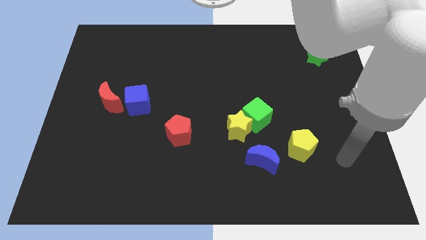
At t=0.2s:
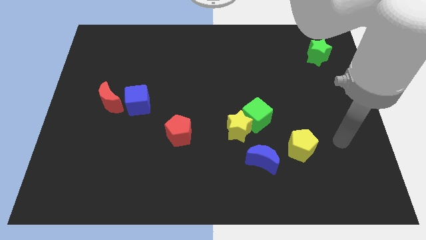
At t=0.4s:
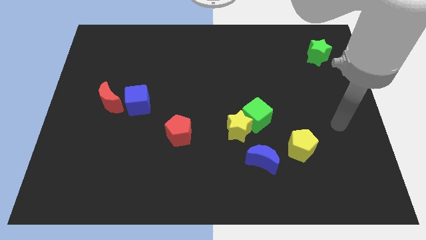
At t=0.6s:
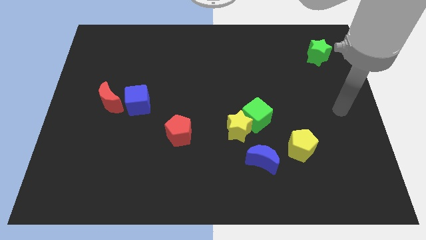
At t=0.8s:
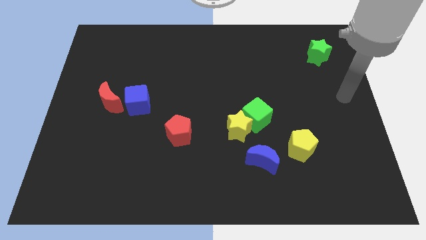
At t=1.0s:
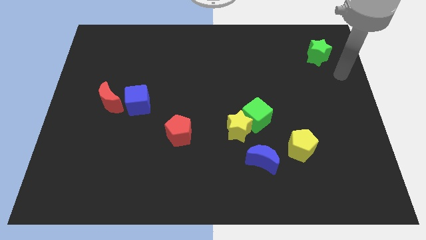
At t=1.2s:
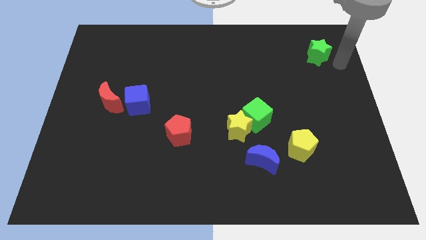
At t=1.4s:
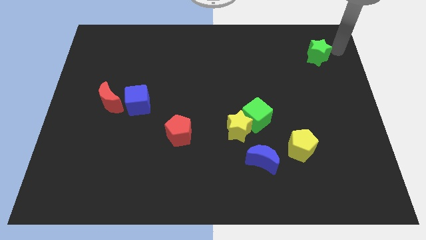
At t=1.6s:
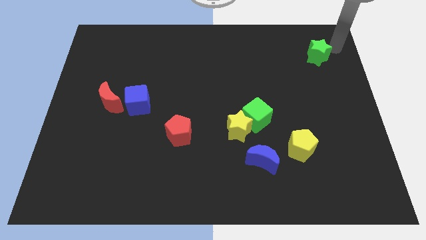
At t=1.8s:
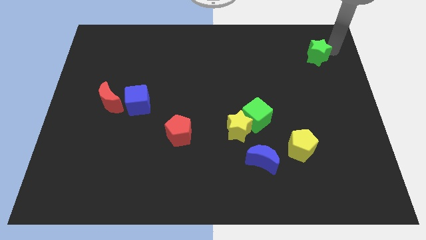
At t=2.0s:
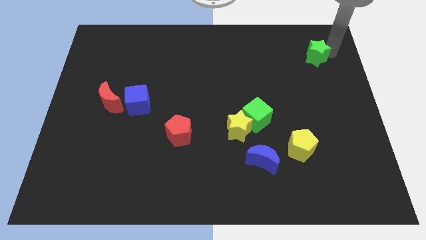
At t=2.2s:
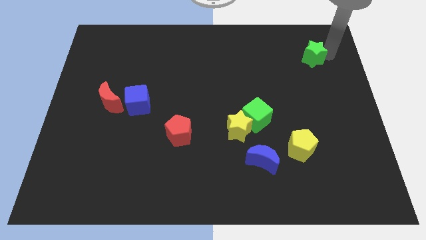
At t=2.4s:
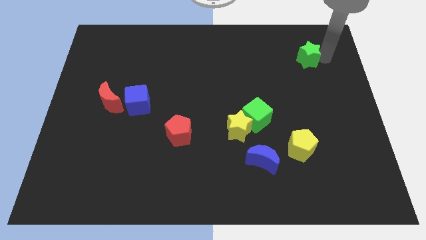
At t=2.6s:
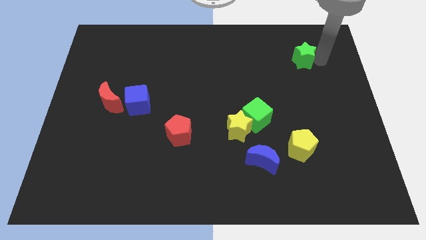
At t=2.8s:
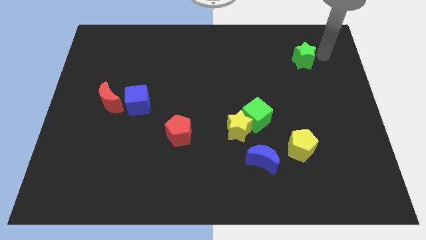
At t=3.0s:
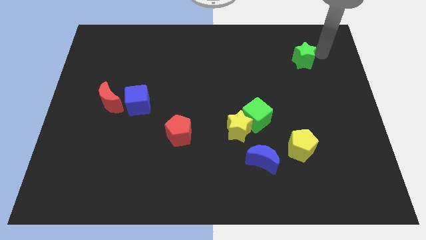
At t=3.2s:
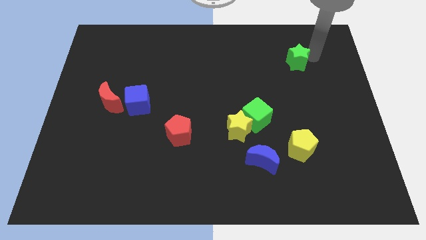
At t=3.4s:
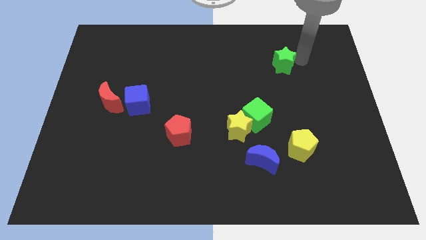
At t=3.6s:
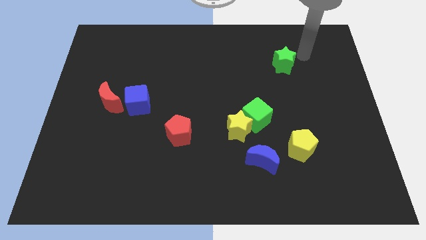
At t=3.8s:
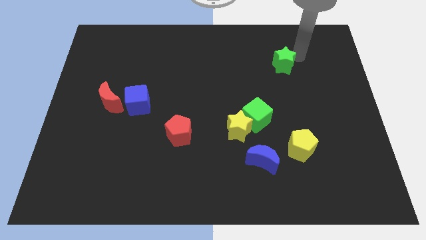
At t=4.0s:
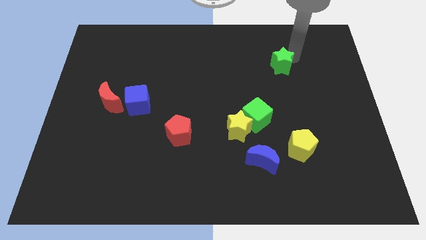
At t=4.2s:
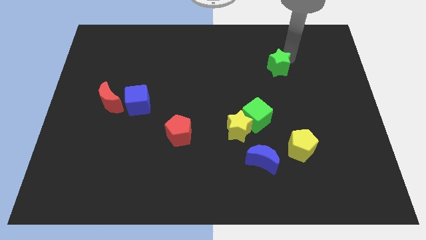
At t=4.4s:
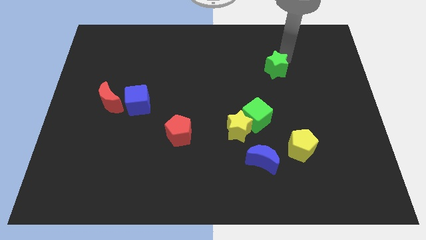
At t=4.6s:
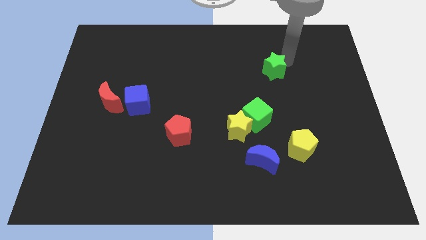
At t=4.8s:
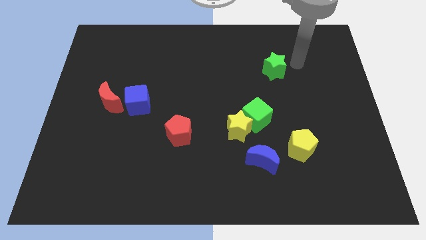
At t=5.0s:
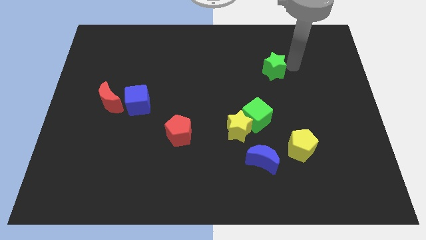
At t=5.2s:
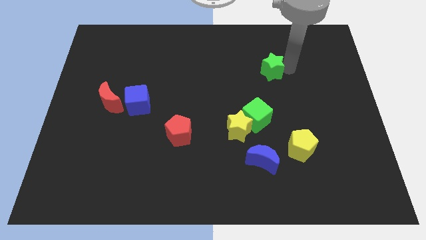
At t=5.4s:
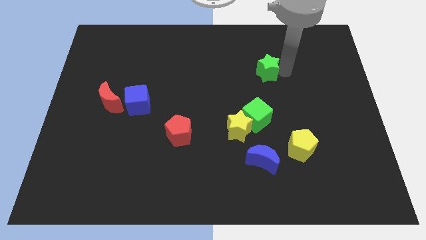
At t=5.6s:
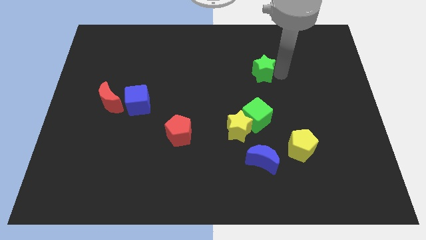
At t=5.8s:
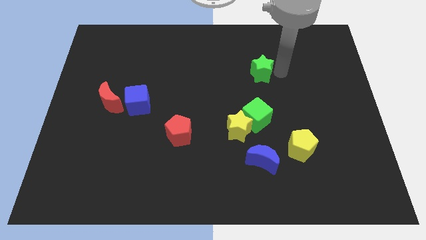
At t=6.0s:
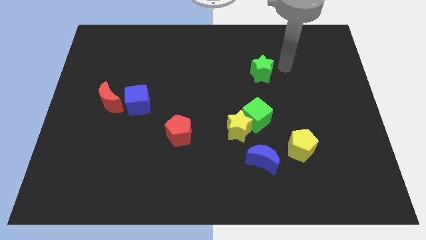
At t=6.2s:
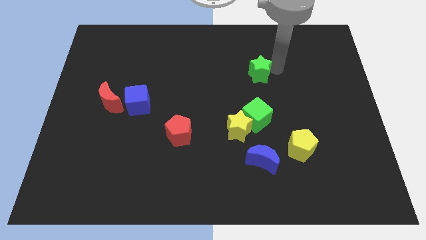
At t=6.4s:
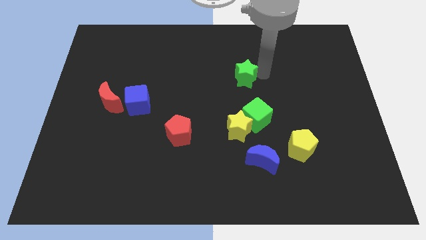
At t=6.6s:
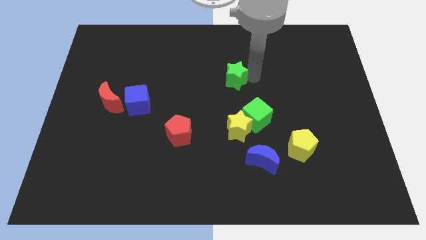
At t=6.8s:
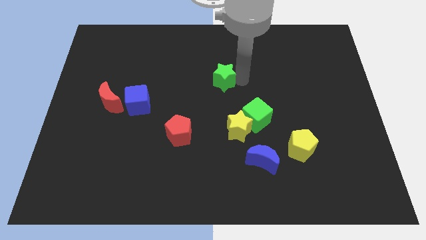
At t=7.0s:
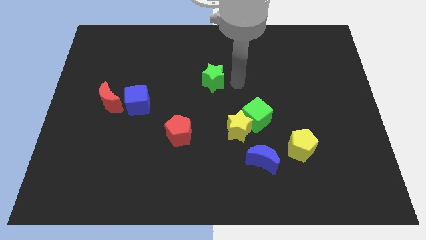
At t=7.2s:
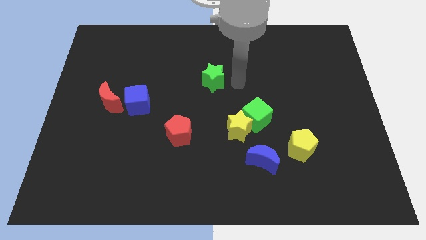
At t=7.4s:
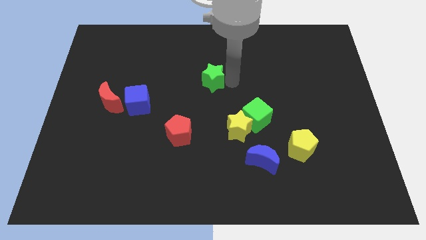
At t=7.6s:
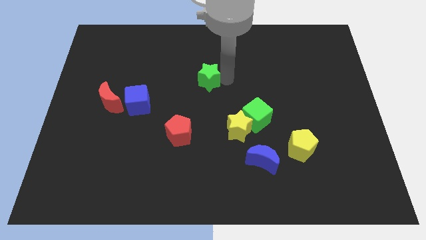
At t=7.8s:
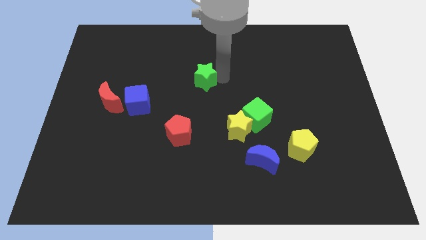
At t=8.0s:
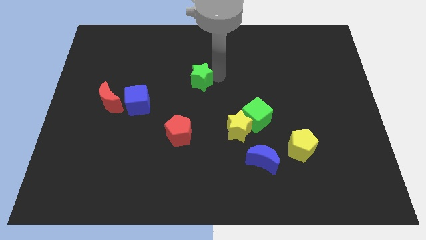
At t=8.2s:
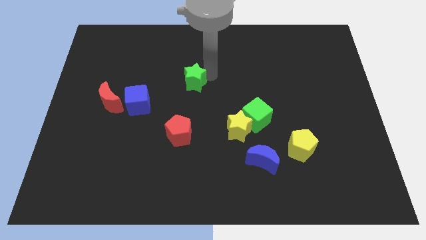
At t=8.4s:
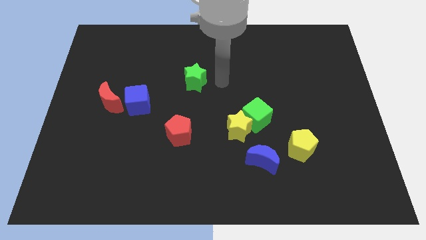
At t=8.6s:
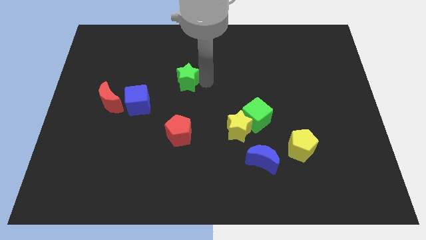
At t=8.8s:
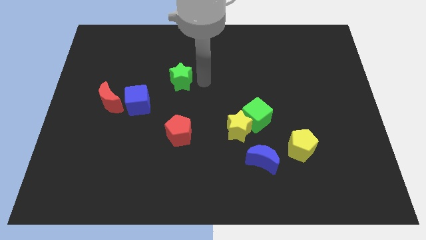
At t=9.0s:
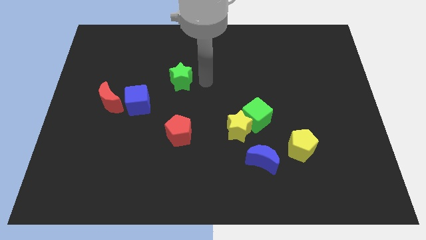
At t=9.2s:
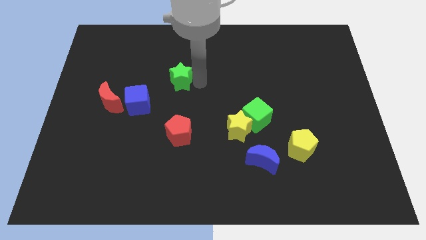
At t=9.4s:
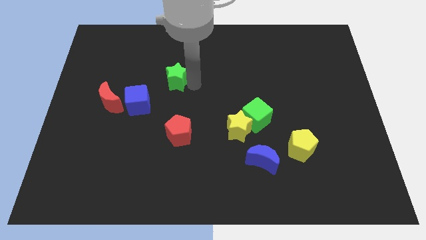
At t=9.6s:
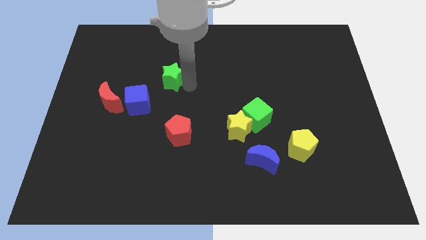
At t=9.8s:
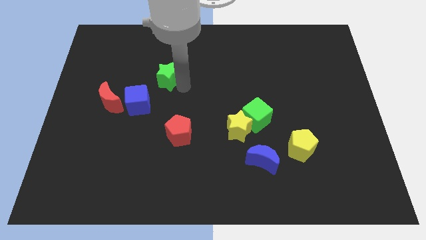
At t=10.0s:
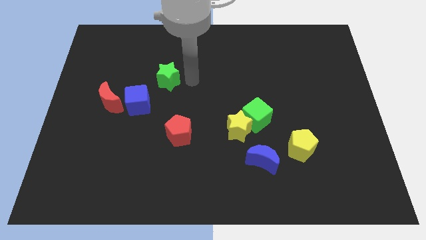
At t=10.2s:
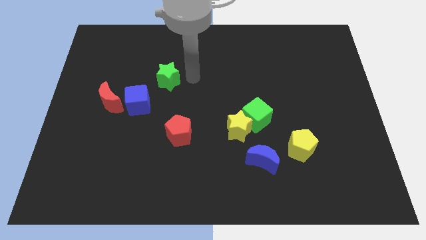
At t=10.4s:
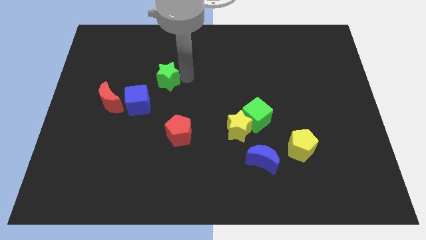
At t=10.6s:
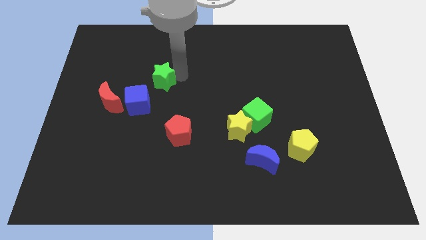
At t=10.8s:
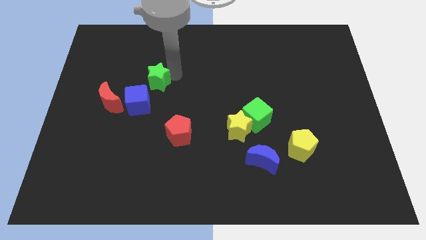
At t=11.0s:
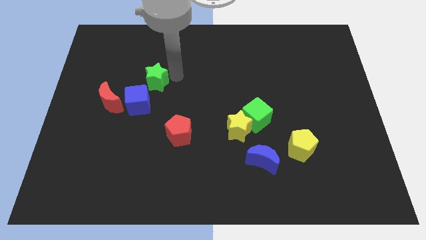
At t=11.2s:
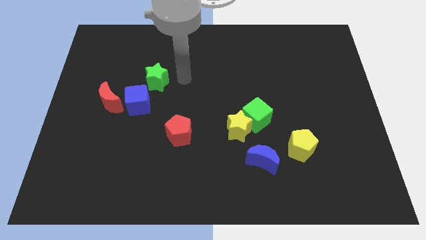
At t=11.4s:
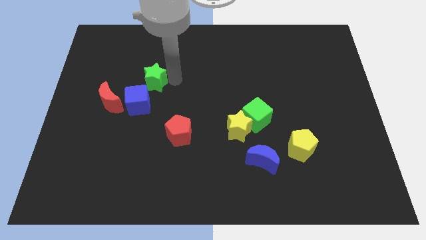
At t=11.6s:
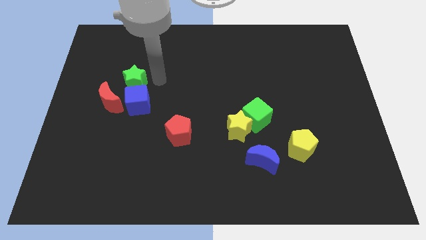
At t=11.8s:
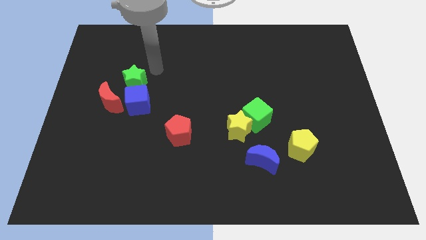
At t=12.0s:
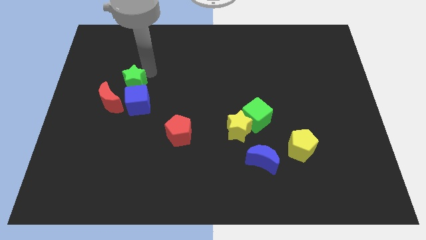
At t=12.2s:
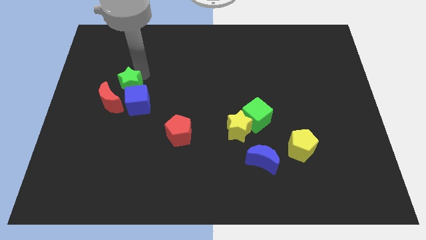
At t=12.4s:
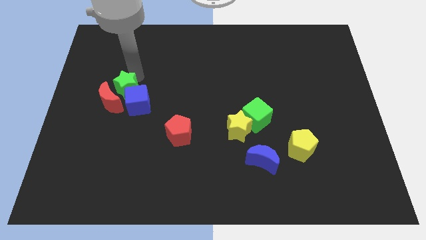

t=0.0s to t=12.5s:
move the green star close to the red moon

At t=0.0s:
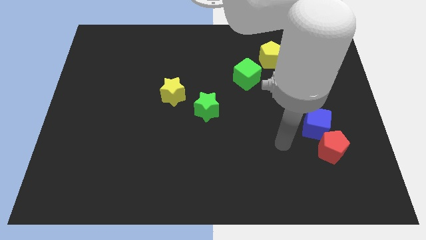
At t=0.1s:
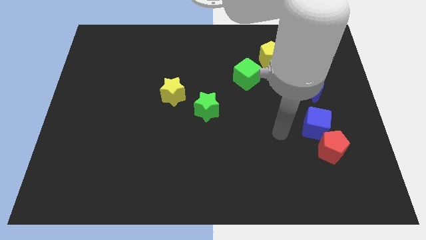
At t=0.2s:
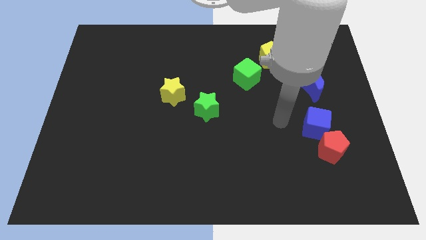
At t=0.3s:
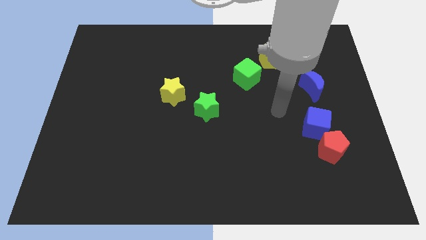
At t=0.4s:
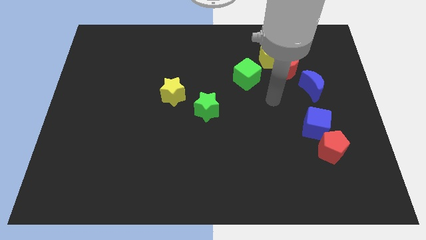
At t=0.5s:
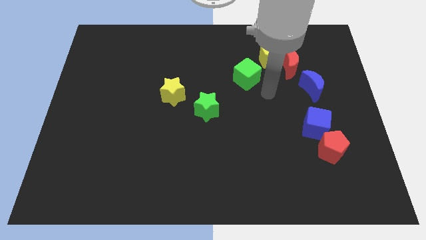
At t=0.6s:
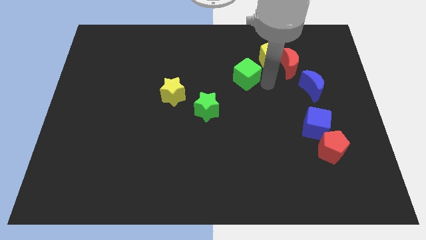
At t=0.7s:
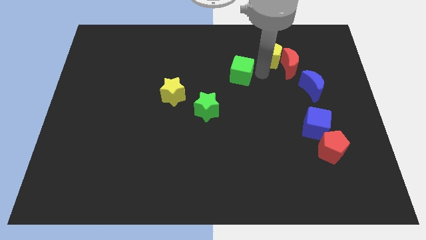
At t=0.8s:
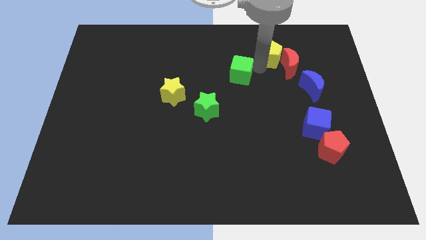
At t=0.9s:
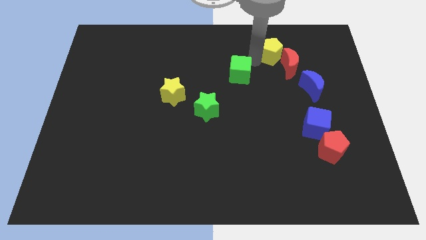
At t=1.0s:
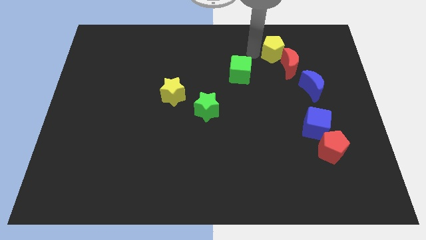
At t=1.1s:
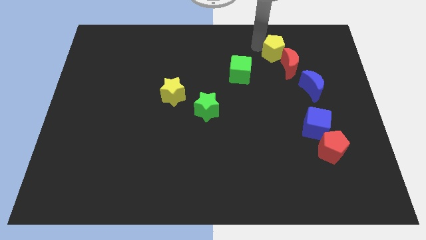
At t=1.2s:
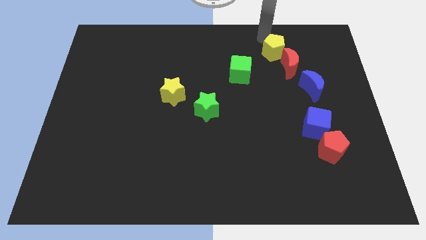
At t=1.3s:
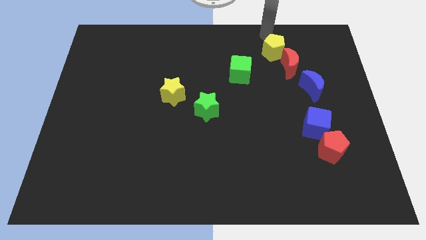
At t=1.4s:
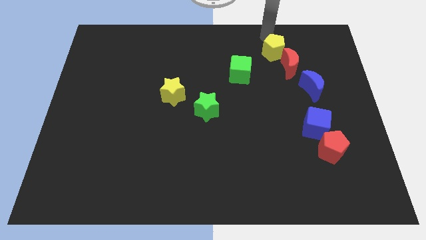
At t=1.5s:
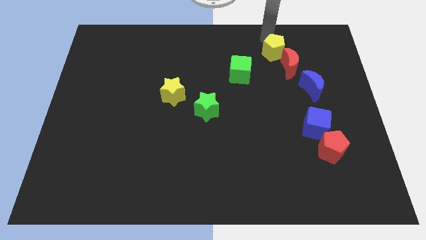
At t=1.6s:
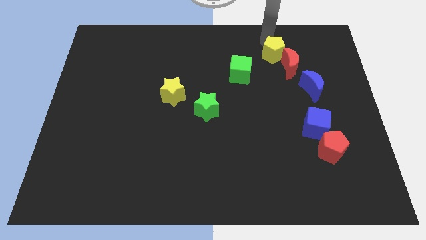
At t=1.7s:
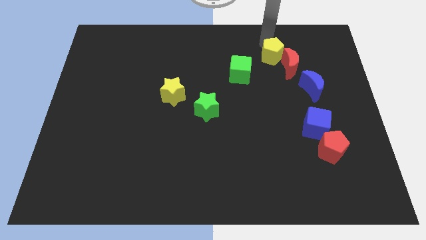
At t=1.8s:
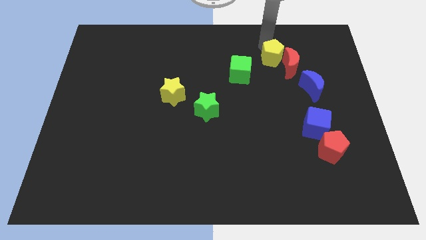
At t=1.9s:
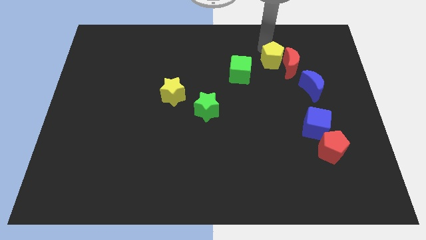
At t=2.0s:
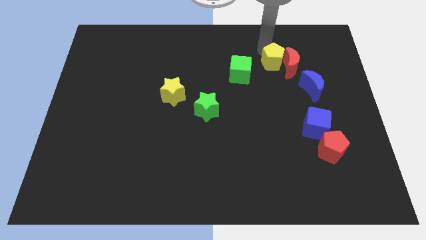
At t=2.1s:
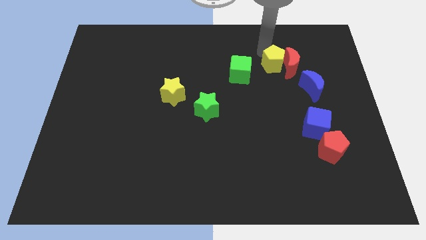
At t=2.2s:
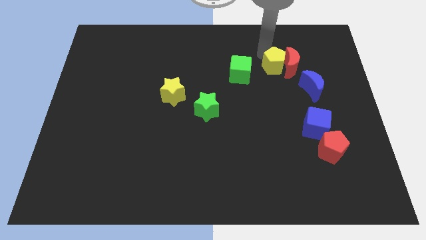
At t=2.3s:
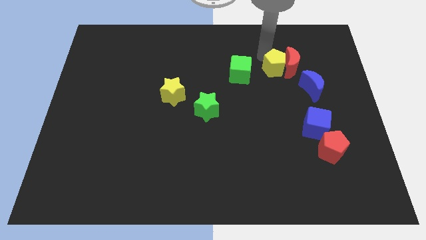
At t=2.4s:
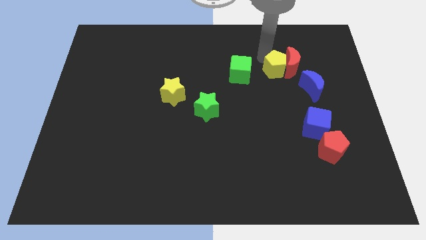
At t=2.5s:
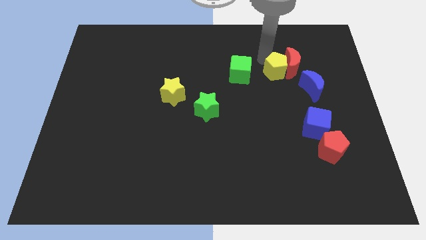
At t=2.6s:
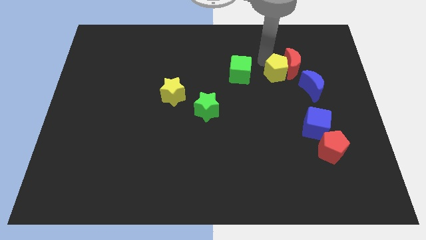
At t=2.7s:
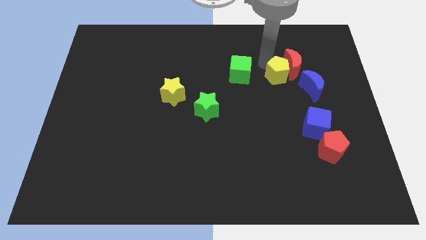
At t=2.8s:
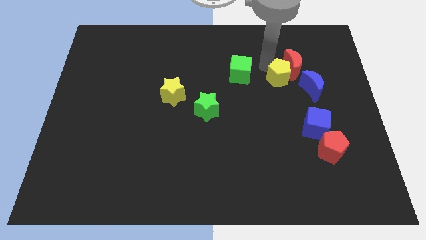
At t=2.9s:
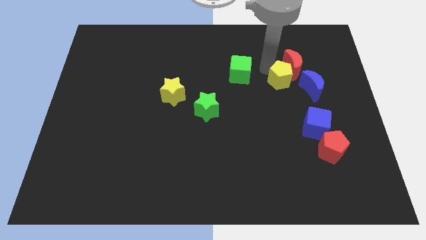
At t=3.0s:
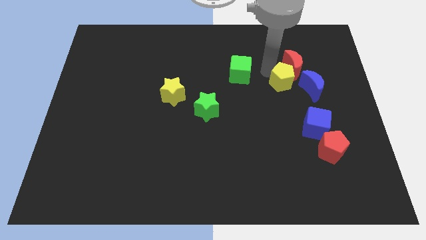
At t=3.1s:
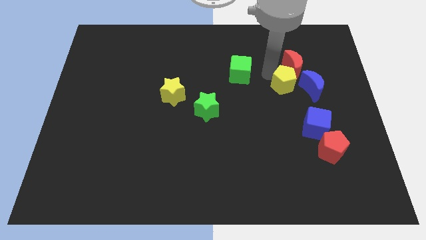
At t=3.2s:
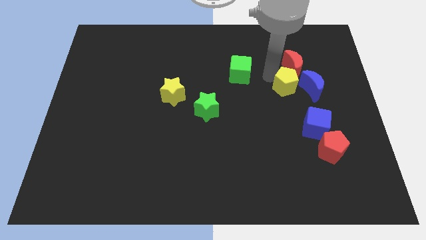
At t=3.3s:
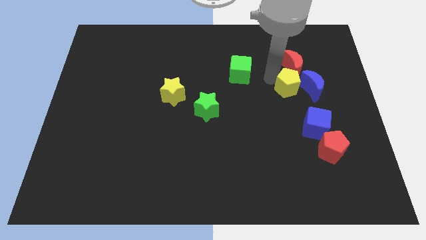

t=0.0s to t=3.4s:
push the yellow pentagon towards the blue moon
